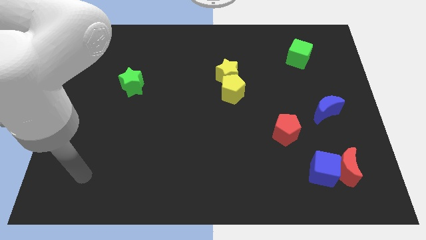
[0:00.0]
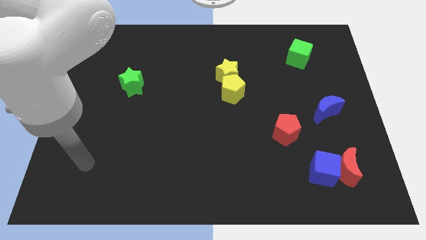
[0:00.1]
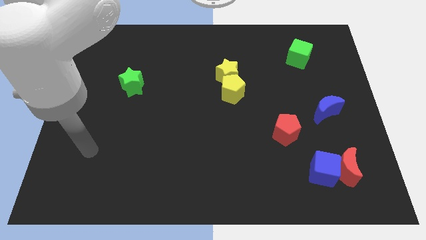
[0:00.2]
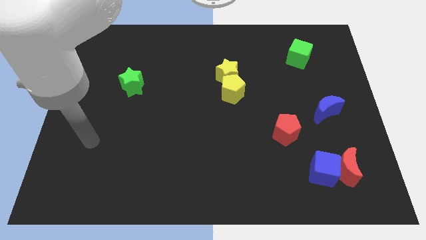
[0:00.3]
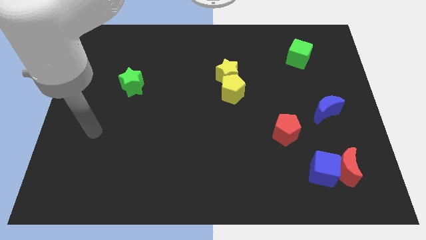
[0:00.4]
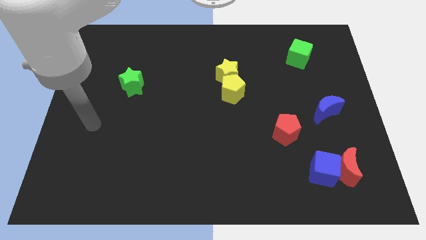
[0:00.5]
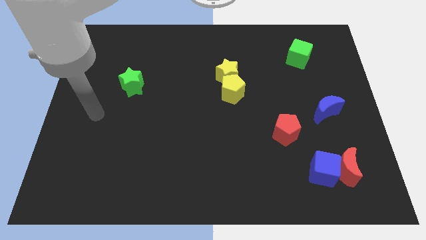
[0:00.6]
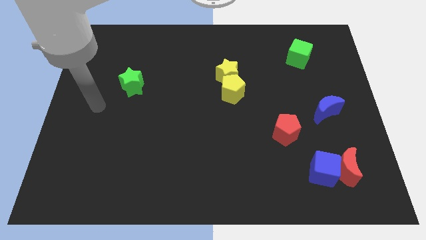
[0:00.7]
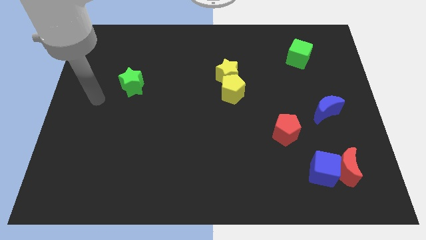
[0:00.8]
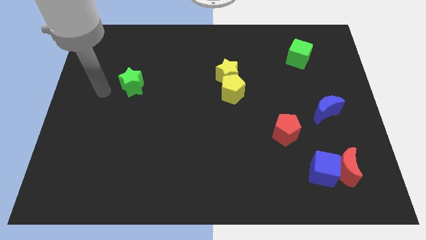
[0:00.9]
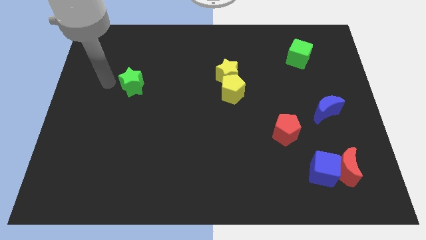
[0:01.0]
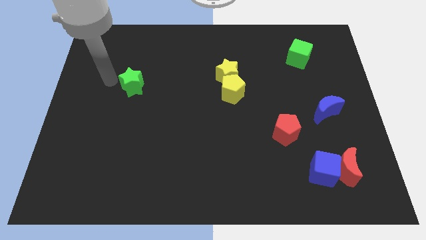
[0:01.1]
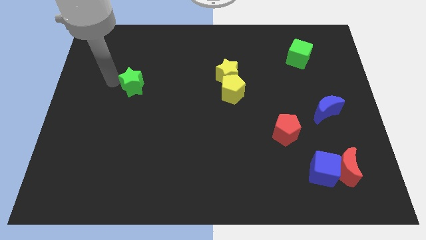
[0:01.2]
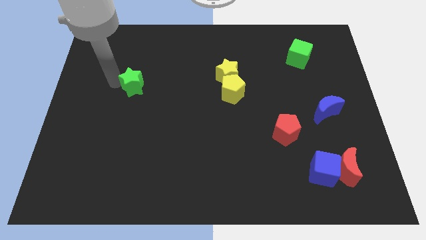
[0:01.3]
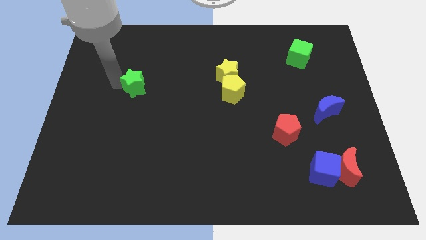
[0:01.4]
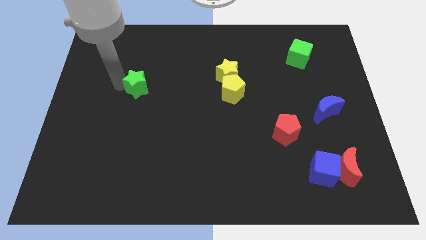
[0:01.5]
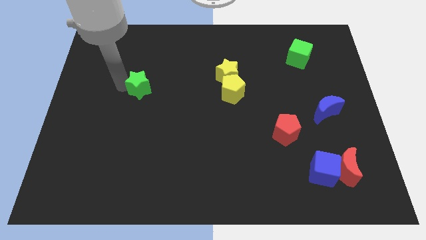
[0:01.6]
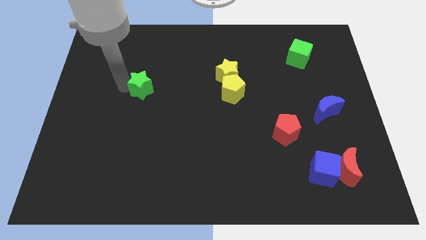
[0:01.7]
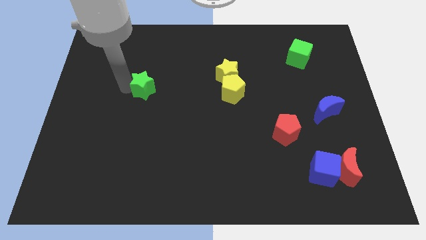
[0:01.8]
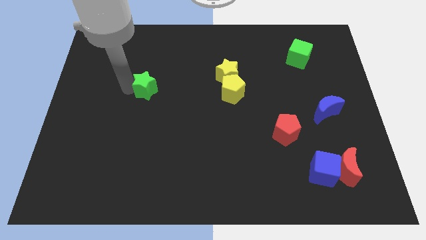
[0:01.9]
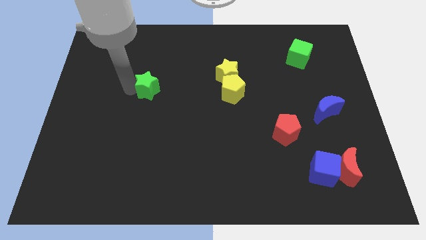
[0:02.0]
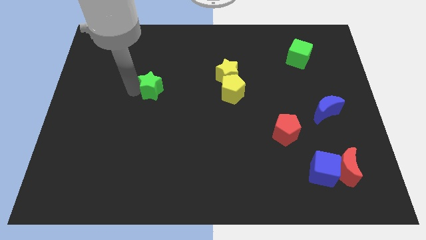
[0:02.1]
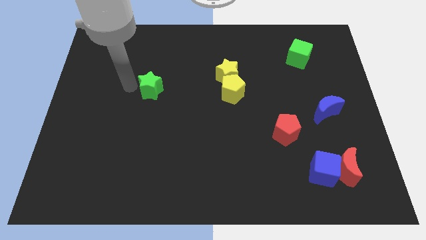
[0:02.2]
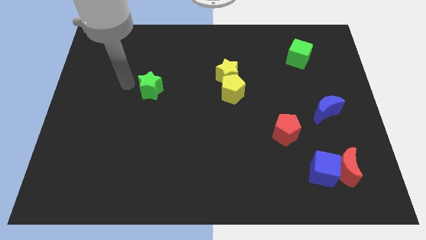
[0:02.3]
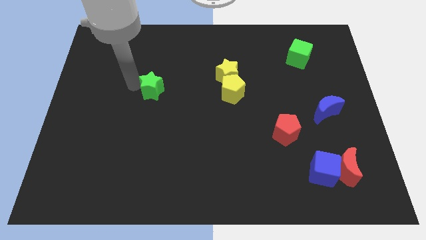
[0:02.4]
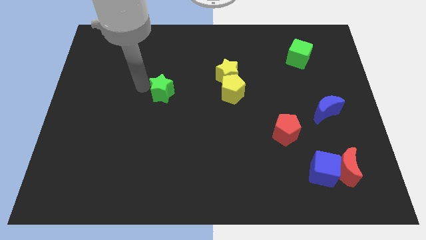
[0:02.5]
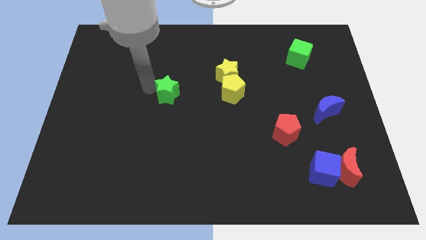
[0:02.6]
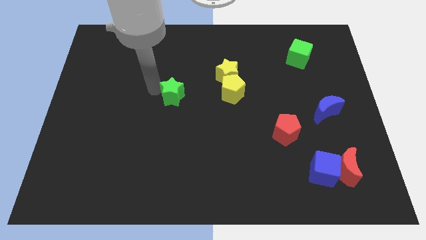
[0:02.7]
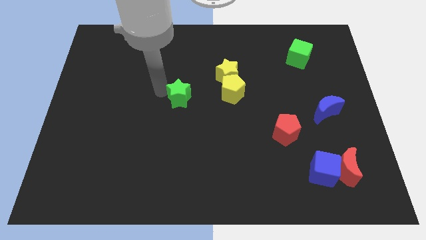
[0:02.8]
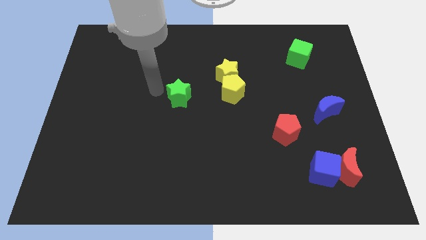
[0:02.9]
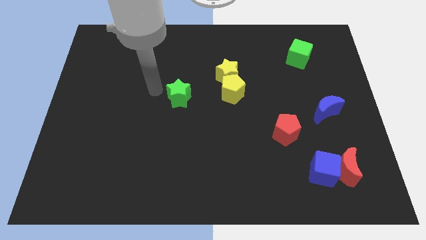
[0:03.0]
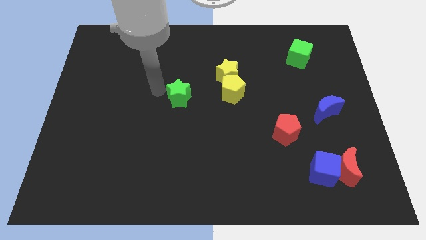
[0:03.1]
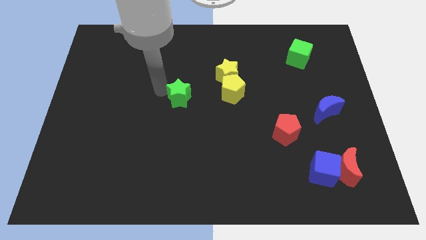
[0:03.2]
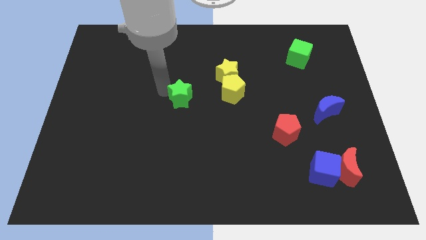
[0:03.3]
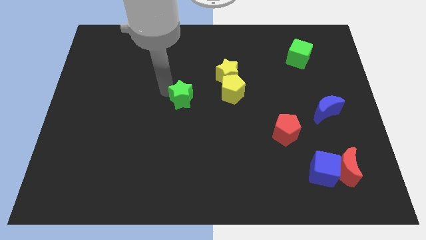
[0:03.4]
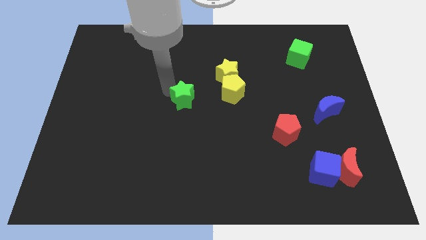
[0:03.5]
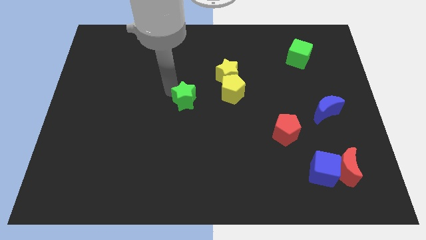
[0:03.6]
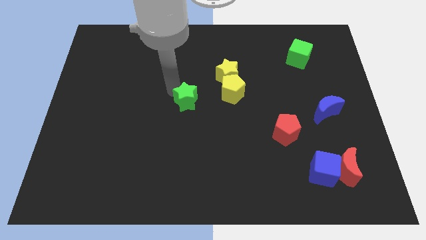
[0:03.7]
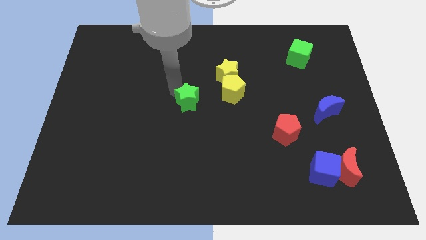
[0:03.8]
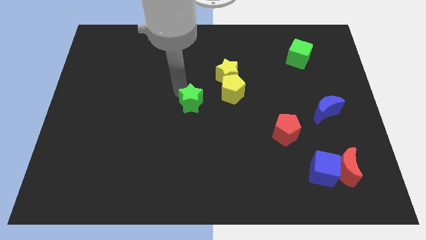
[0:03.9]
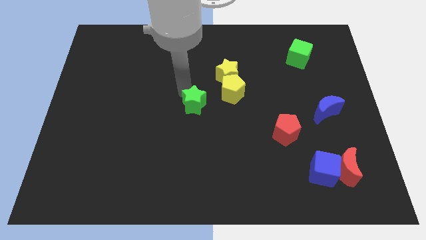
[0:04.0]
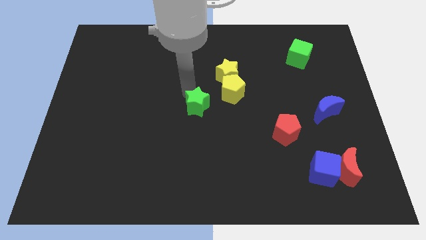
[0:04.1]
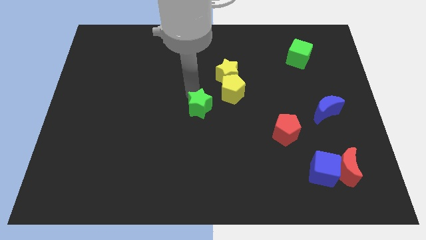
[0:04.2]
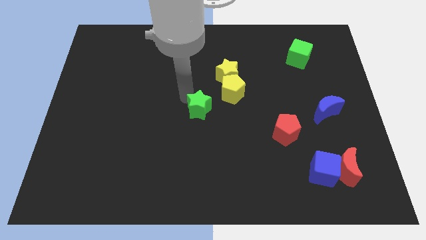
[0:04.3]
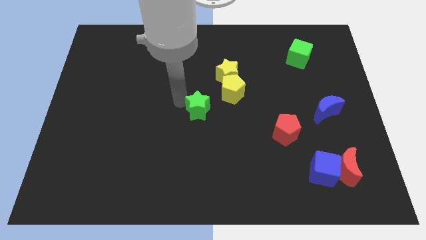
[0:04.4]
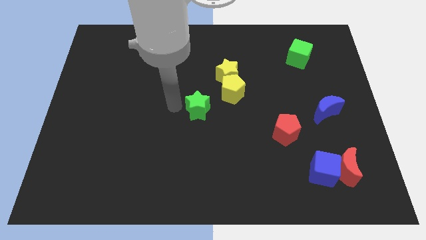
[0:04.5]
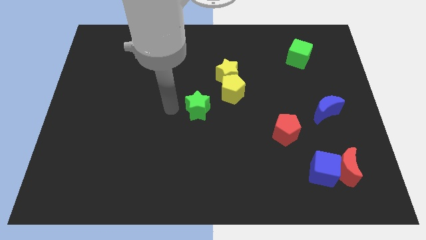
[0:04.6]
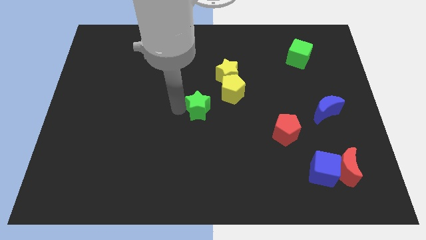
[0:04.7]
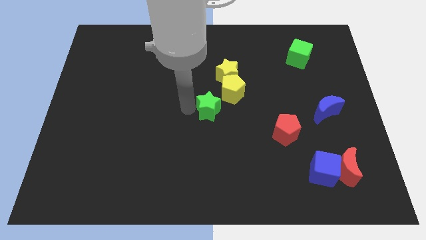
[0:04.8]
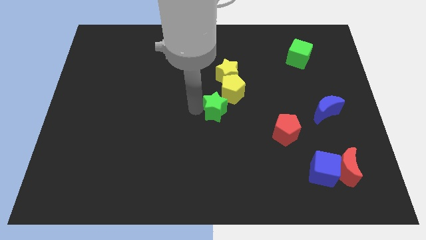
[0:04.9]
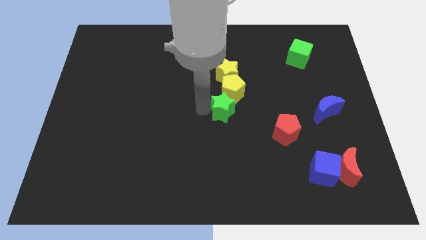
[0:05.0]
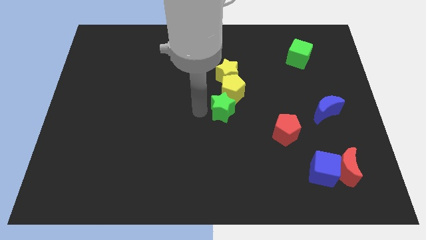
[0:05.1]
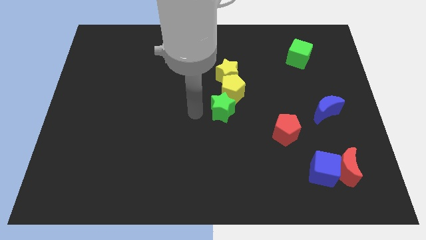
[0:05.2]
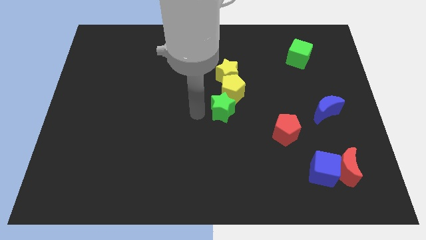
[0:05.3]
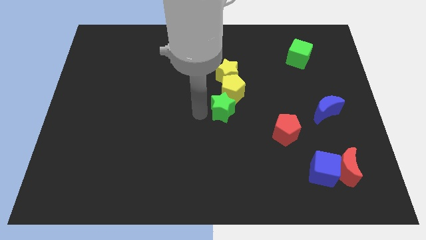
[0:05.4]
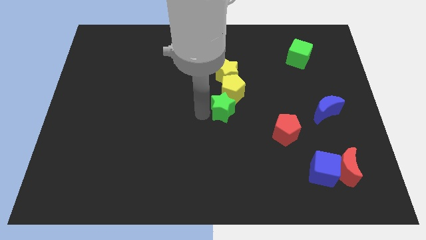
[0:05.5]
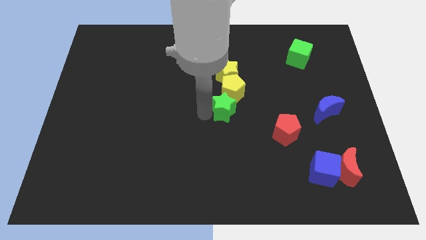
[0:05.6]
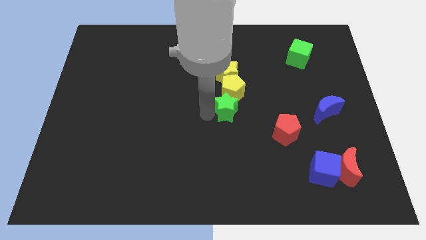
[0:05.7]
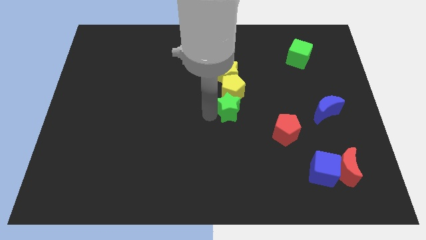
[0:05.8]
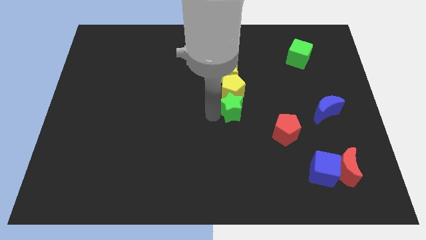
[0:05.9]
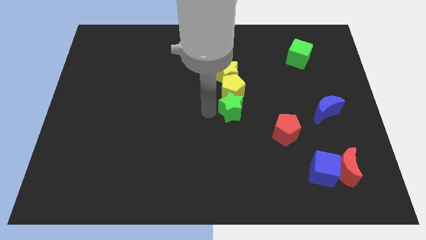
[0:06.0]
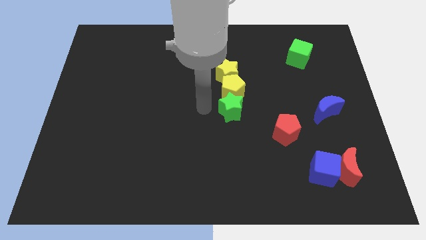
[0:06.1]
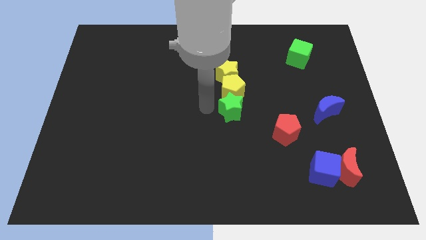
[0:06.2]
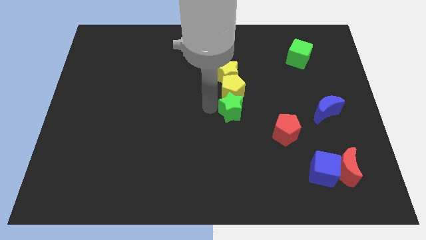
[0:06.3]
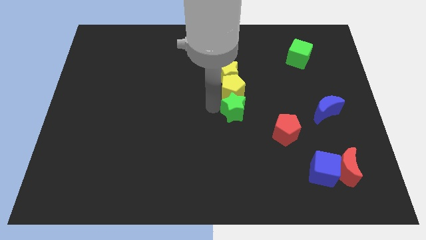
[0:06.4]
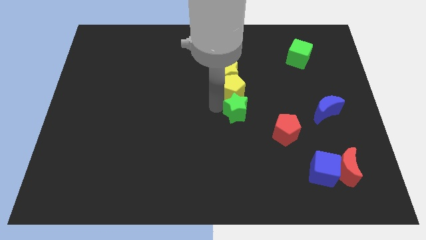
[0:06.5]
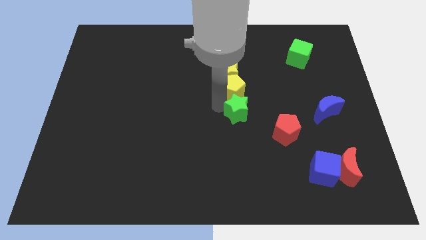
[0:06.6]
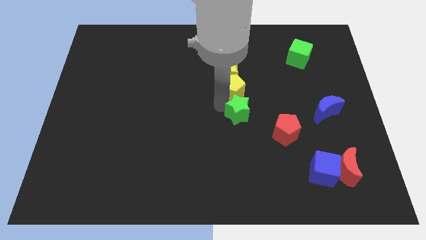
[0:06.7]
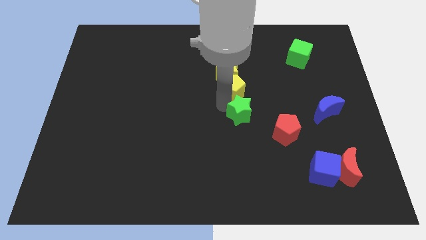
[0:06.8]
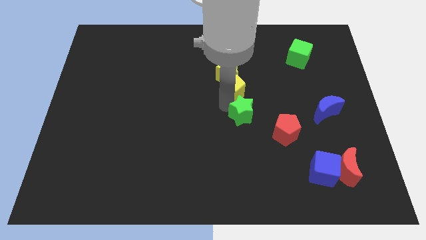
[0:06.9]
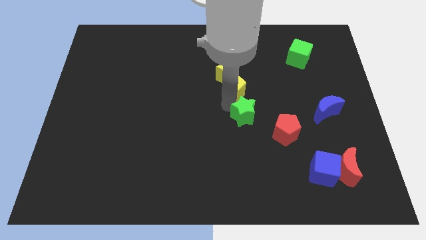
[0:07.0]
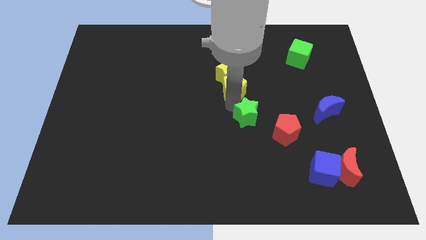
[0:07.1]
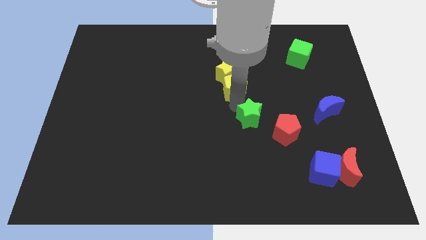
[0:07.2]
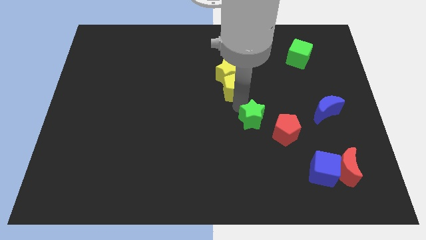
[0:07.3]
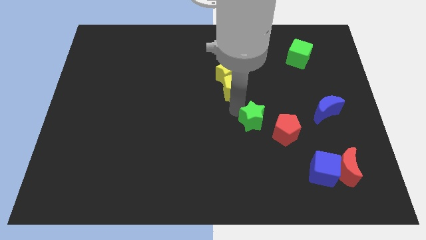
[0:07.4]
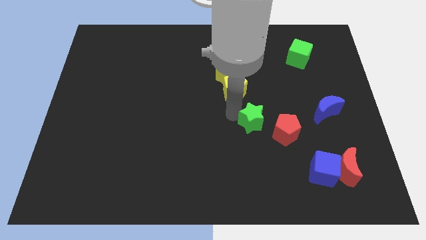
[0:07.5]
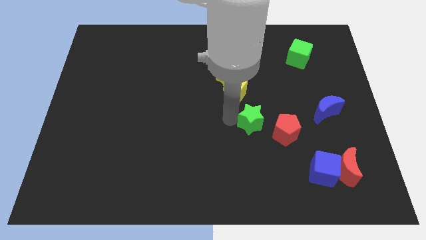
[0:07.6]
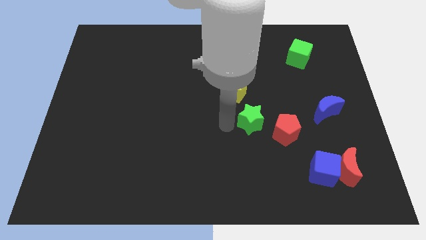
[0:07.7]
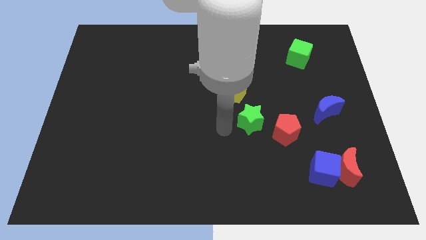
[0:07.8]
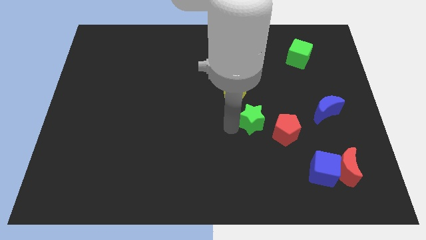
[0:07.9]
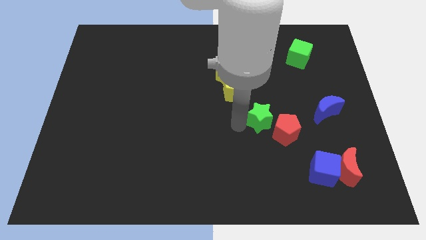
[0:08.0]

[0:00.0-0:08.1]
move the green star left of the blue moon
